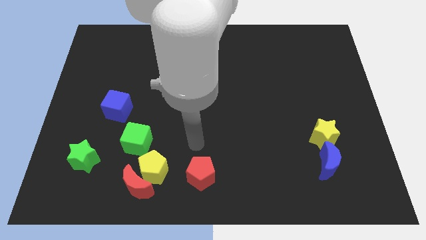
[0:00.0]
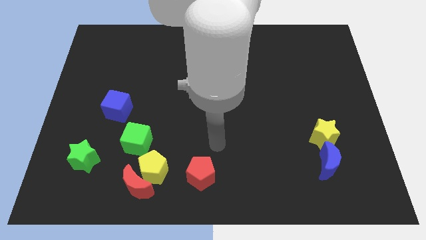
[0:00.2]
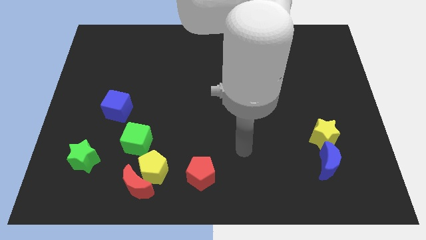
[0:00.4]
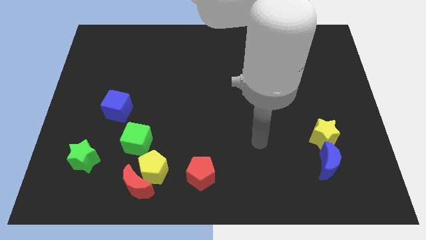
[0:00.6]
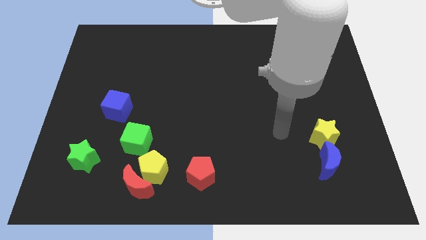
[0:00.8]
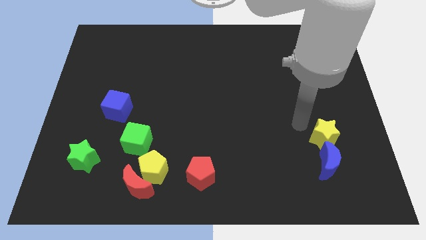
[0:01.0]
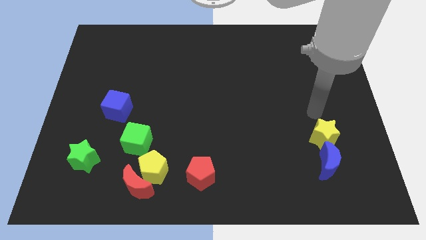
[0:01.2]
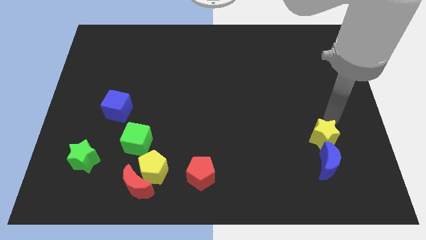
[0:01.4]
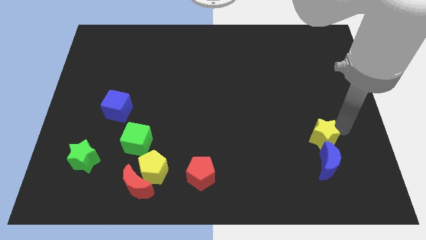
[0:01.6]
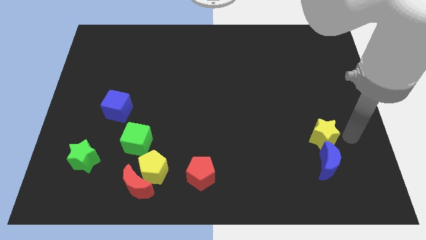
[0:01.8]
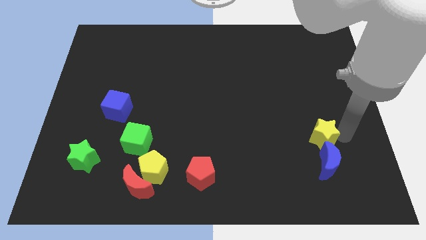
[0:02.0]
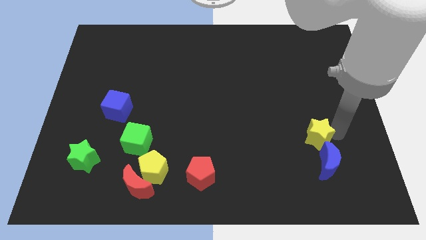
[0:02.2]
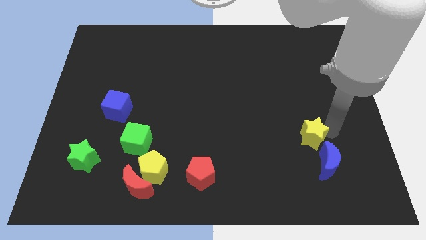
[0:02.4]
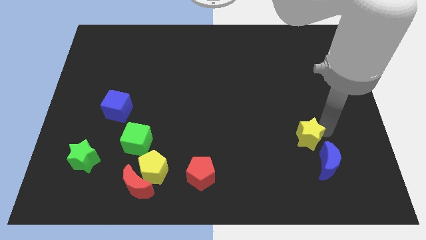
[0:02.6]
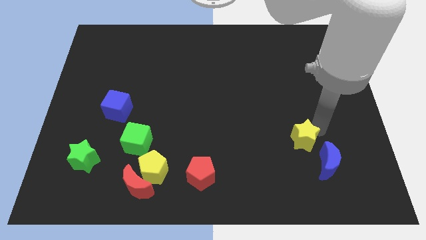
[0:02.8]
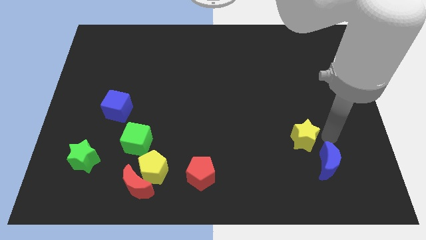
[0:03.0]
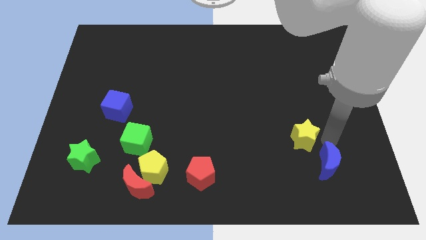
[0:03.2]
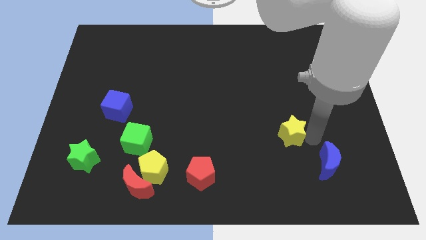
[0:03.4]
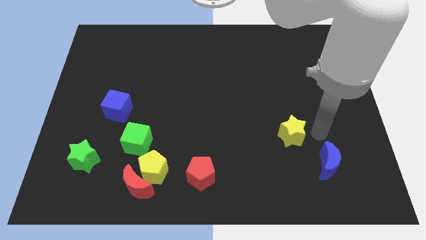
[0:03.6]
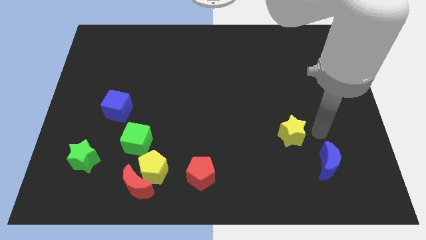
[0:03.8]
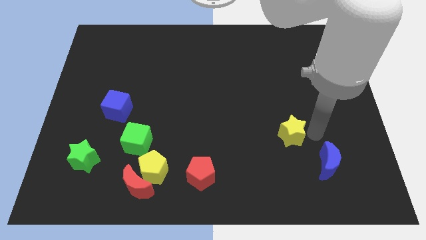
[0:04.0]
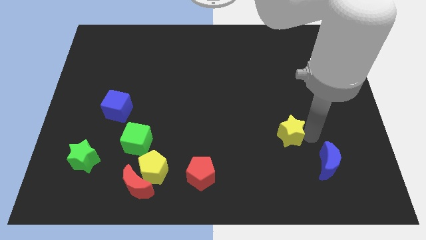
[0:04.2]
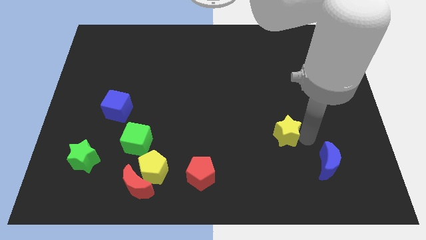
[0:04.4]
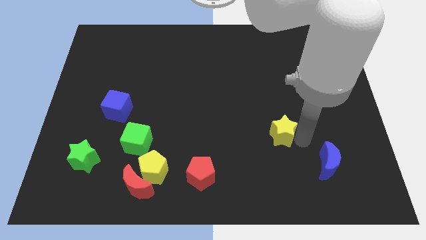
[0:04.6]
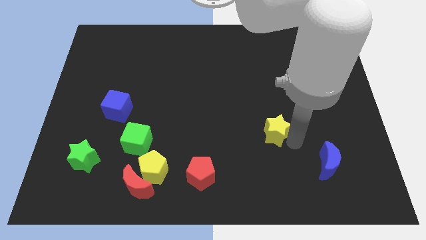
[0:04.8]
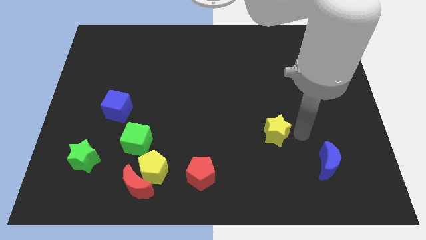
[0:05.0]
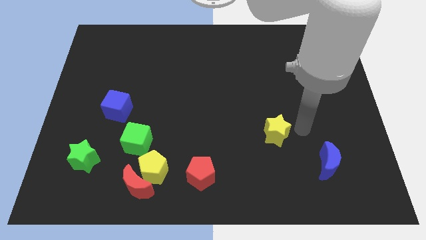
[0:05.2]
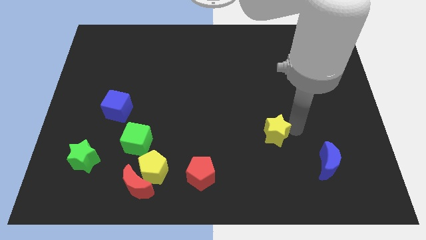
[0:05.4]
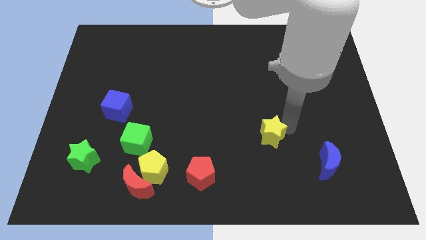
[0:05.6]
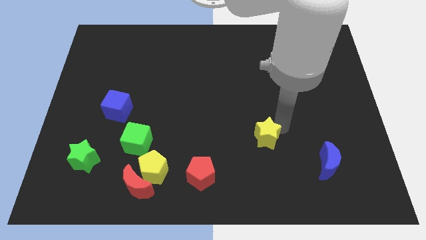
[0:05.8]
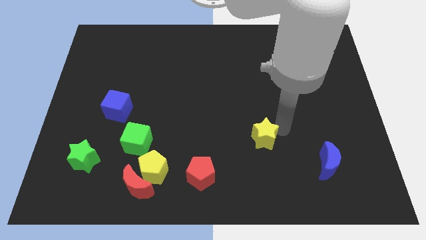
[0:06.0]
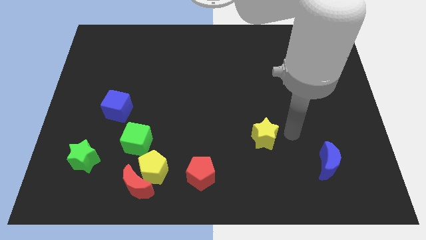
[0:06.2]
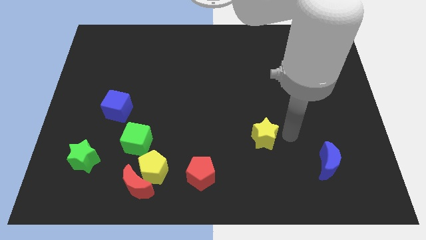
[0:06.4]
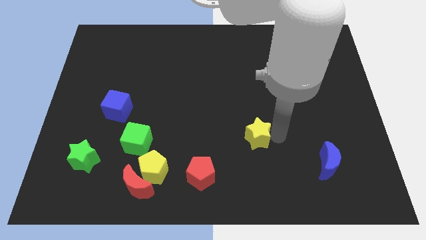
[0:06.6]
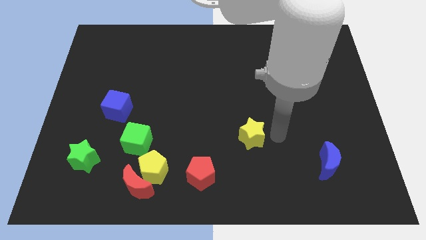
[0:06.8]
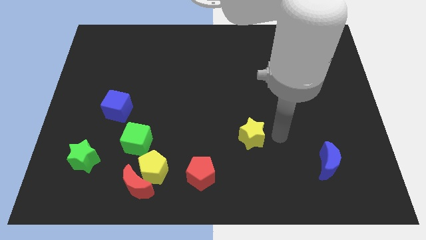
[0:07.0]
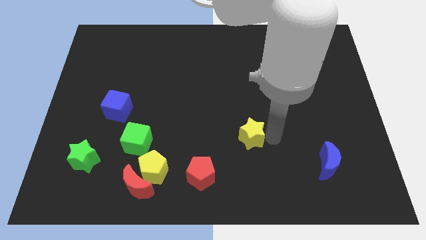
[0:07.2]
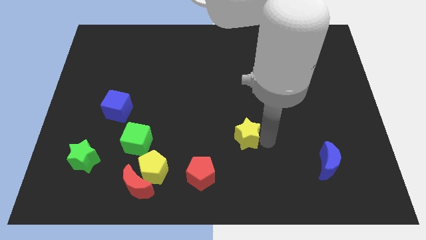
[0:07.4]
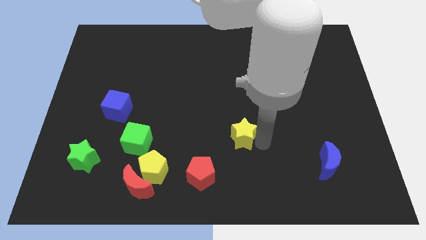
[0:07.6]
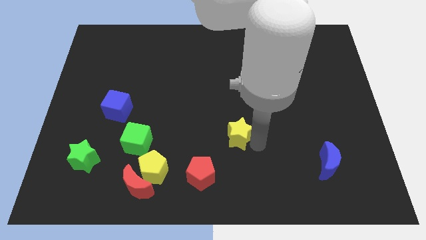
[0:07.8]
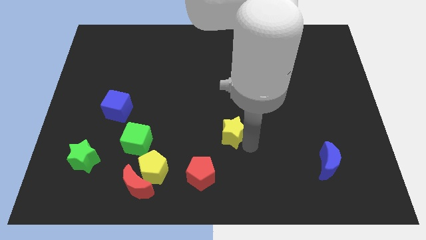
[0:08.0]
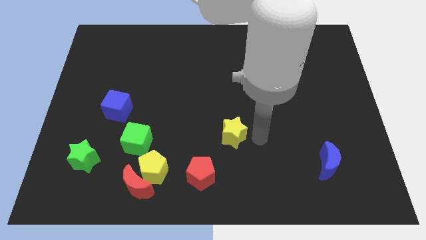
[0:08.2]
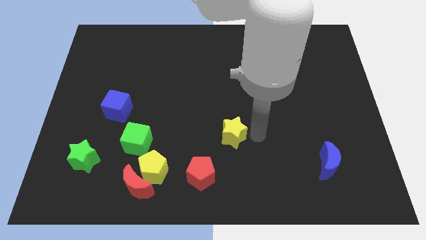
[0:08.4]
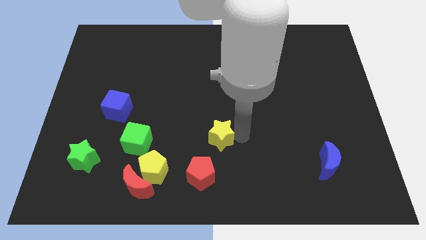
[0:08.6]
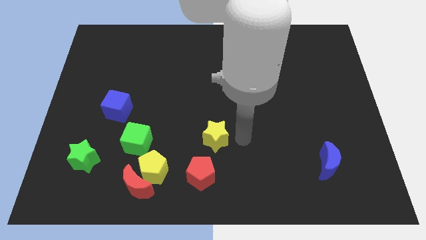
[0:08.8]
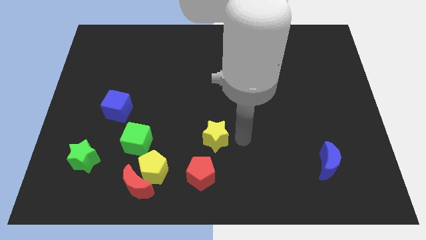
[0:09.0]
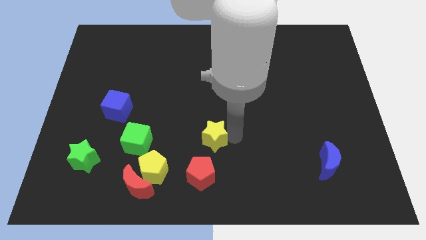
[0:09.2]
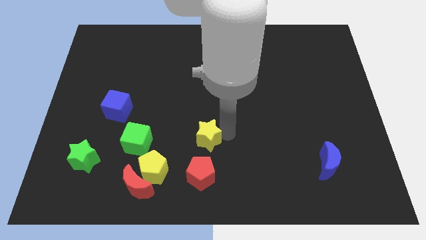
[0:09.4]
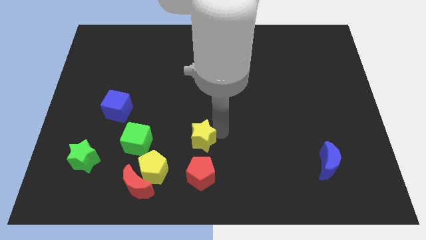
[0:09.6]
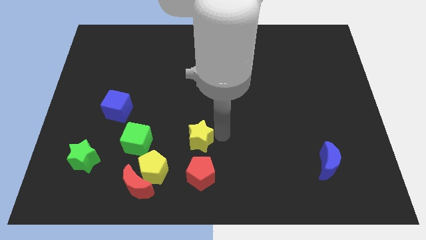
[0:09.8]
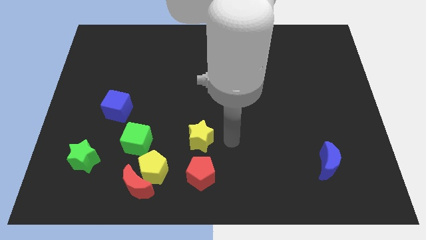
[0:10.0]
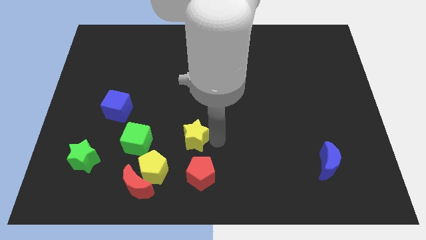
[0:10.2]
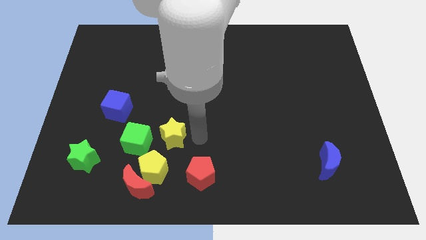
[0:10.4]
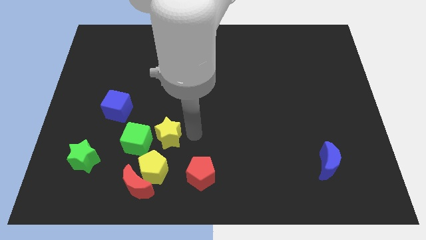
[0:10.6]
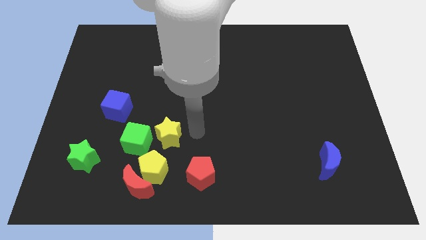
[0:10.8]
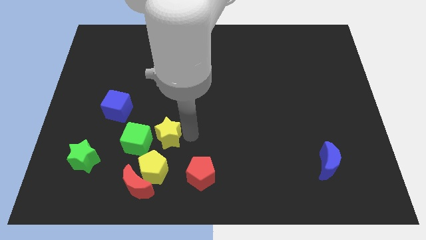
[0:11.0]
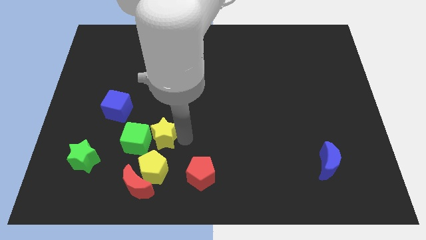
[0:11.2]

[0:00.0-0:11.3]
put the yellow star next to the green cube

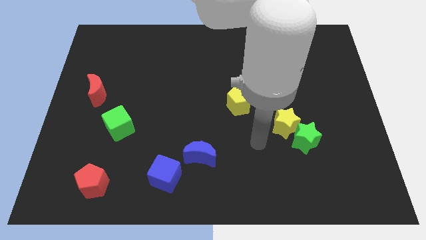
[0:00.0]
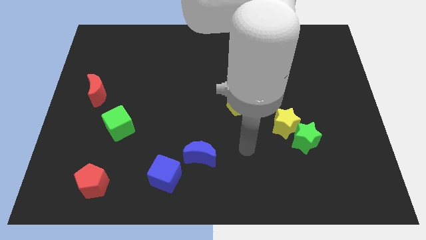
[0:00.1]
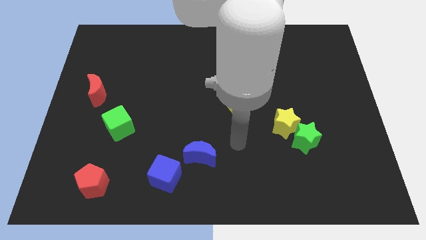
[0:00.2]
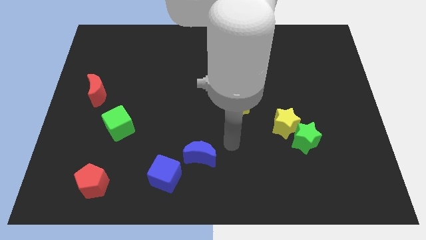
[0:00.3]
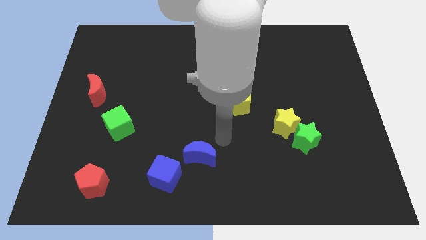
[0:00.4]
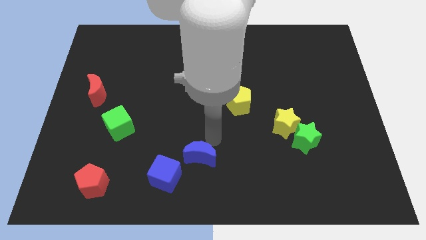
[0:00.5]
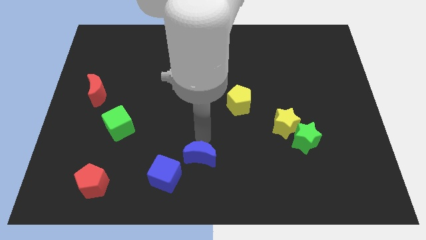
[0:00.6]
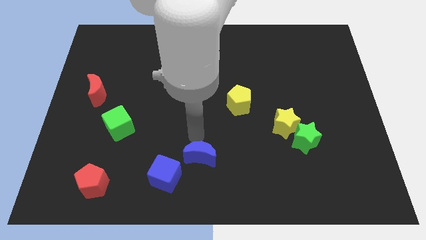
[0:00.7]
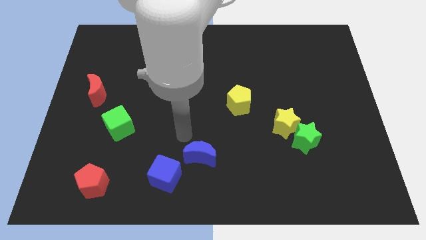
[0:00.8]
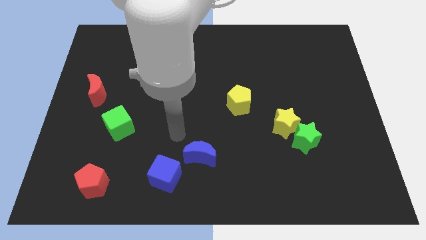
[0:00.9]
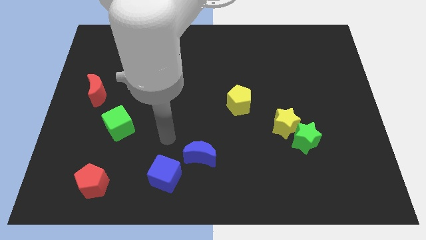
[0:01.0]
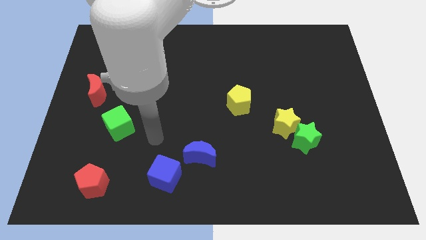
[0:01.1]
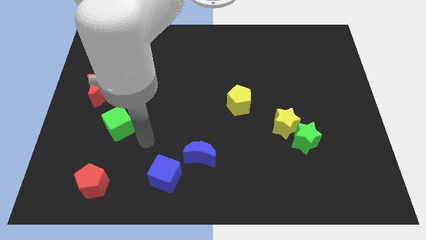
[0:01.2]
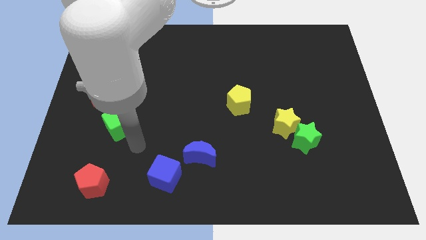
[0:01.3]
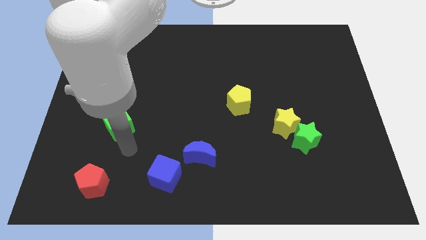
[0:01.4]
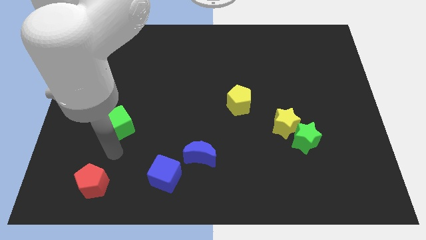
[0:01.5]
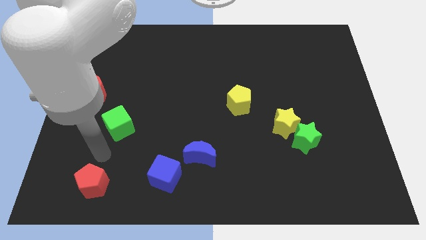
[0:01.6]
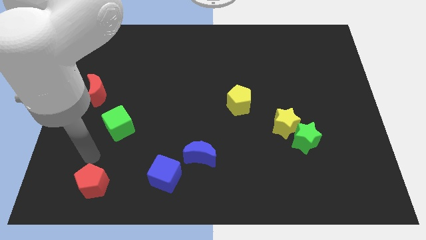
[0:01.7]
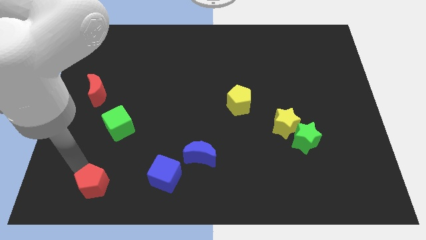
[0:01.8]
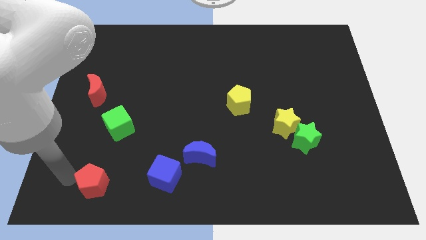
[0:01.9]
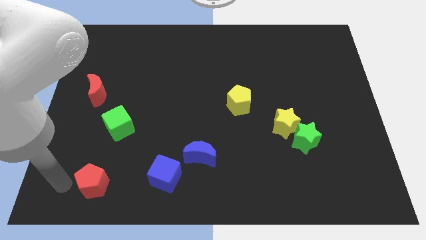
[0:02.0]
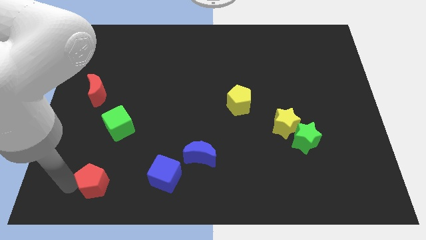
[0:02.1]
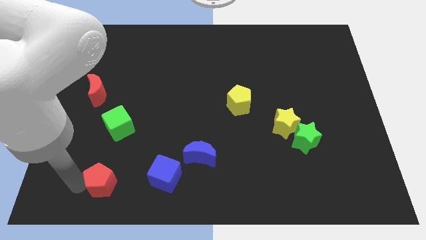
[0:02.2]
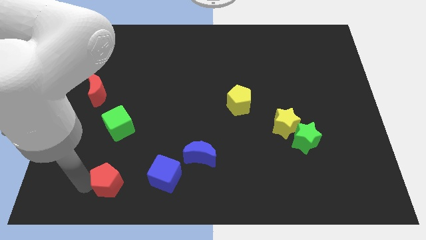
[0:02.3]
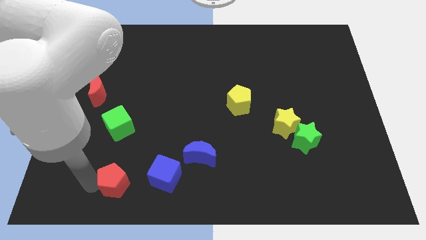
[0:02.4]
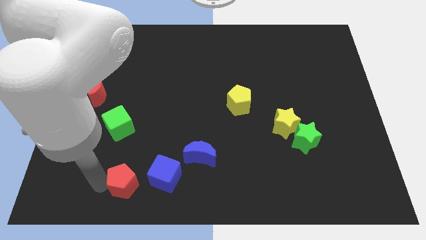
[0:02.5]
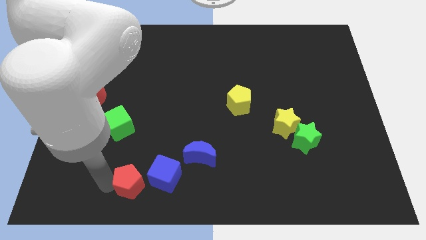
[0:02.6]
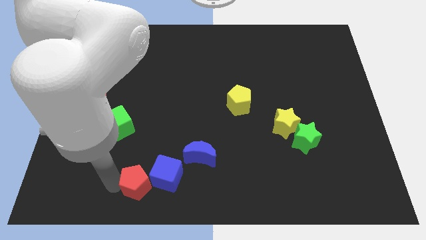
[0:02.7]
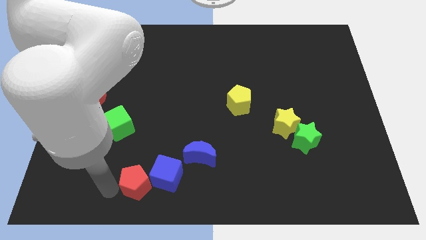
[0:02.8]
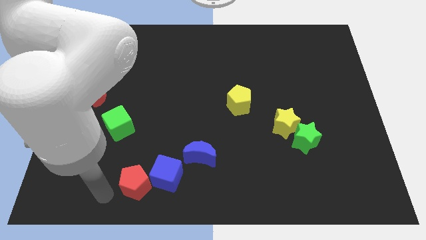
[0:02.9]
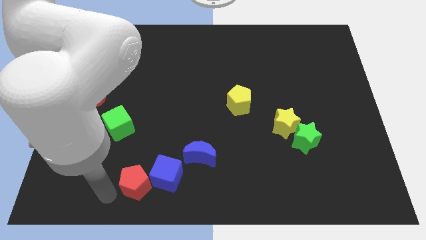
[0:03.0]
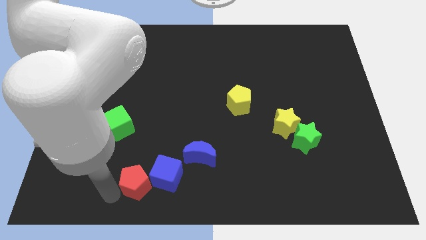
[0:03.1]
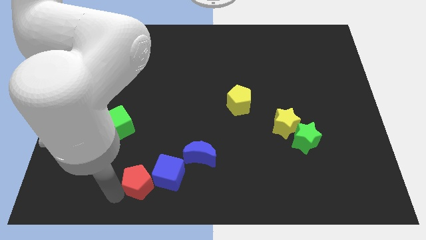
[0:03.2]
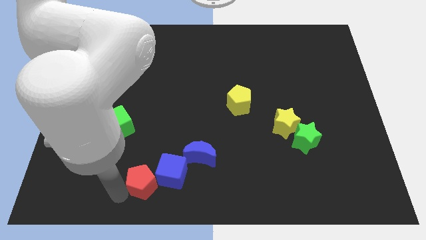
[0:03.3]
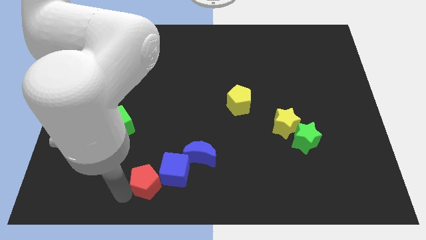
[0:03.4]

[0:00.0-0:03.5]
put the red pentagon next to the blue cube
